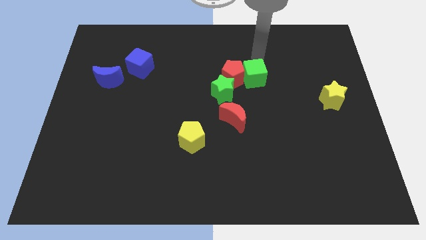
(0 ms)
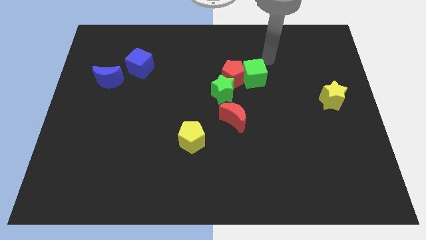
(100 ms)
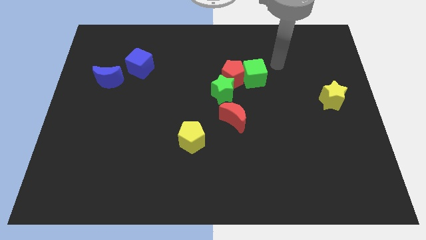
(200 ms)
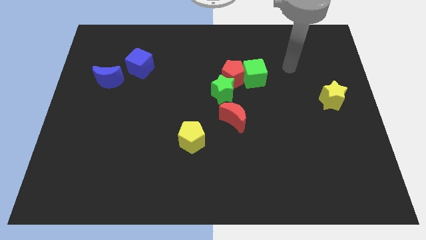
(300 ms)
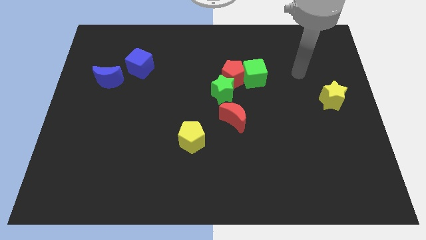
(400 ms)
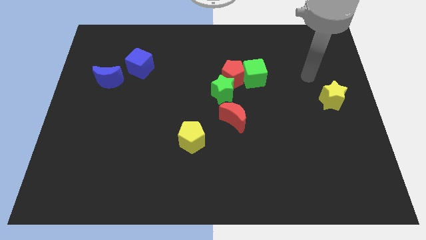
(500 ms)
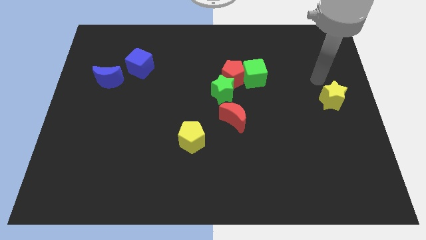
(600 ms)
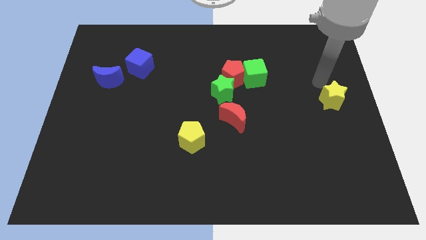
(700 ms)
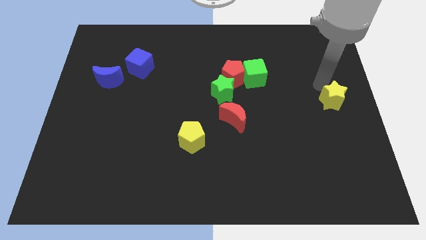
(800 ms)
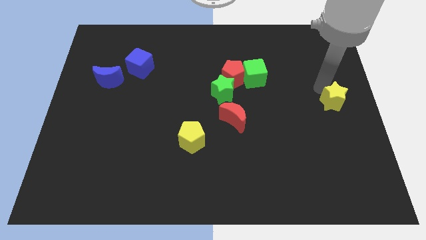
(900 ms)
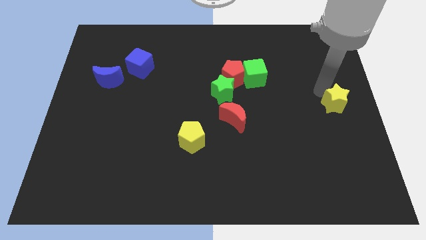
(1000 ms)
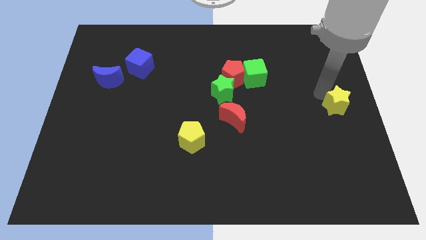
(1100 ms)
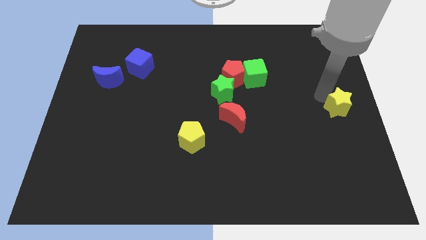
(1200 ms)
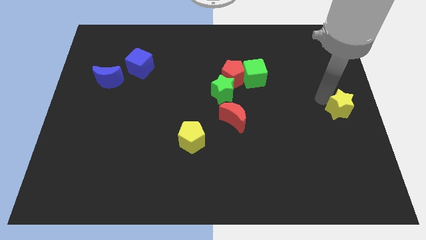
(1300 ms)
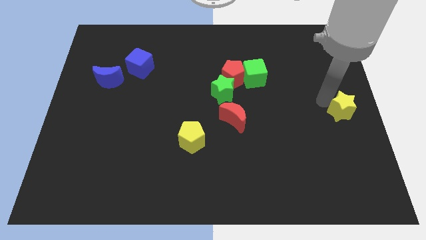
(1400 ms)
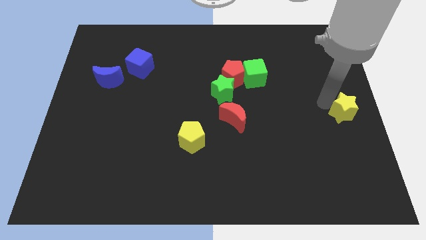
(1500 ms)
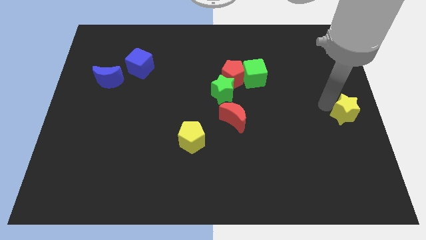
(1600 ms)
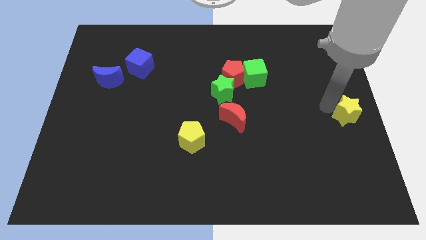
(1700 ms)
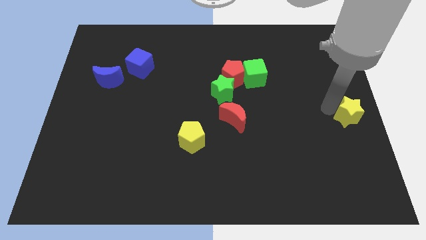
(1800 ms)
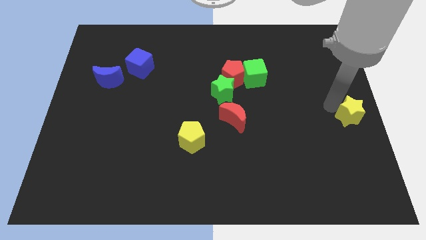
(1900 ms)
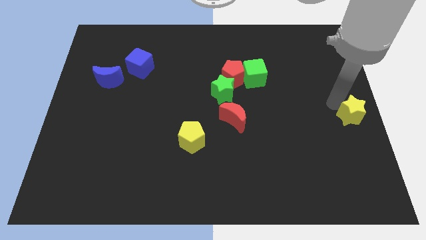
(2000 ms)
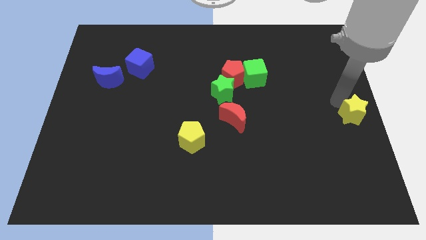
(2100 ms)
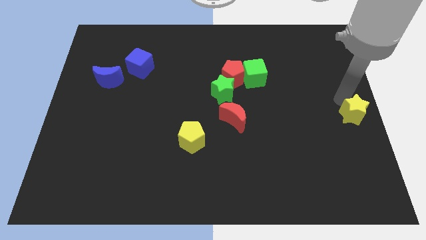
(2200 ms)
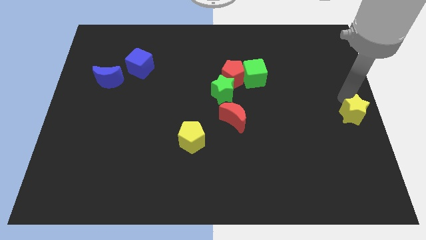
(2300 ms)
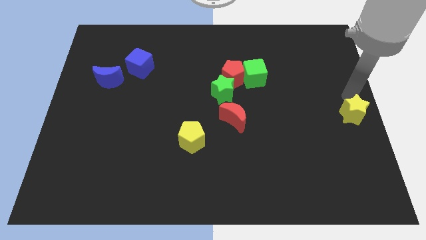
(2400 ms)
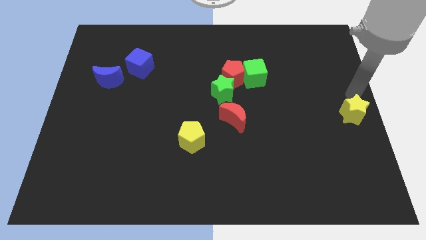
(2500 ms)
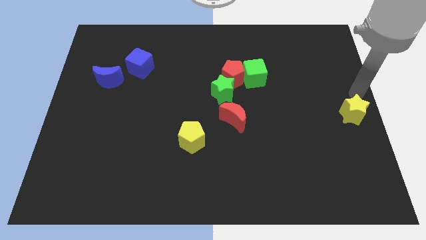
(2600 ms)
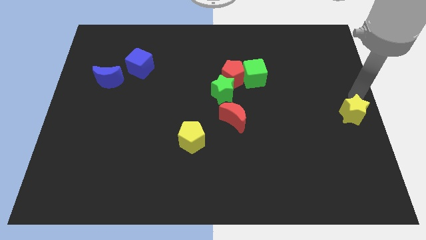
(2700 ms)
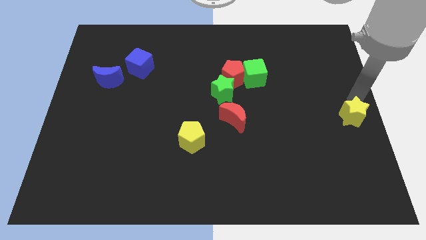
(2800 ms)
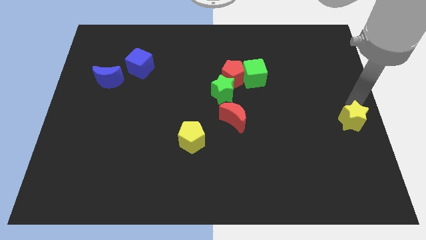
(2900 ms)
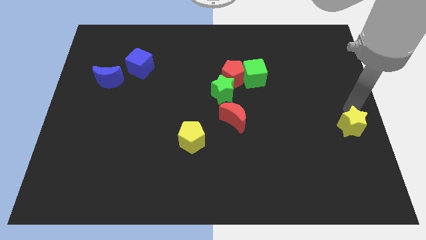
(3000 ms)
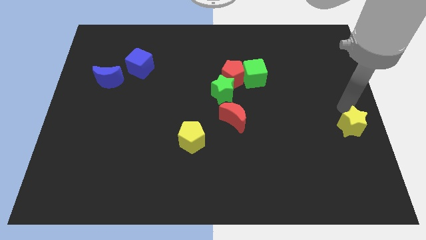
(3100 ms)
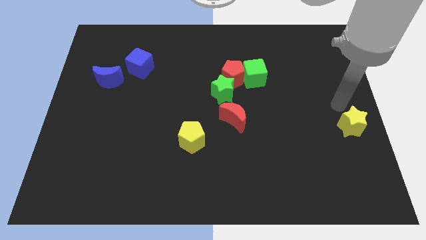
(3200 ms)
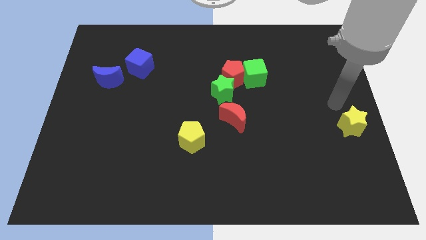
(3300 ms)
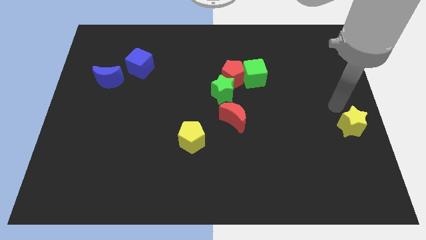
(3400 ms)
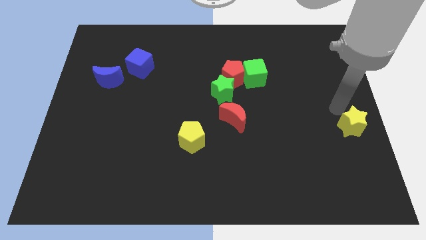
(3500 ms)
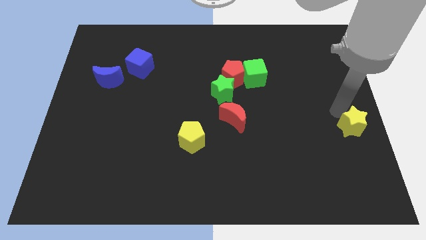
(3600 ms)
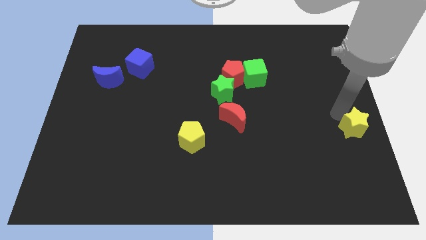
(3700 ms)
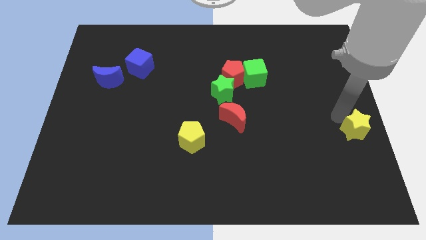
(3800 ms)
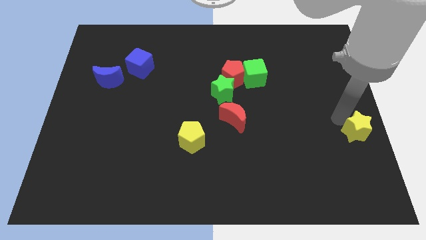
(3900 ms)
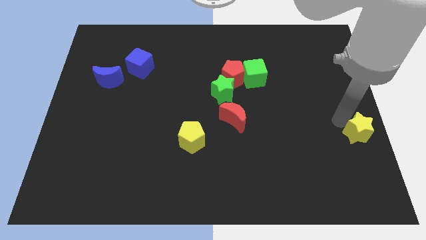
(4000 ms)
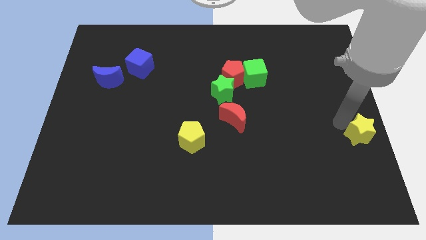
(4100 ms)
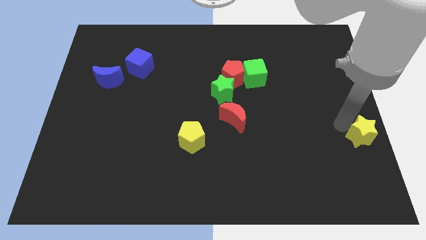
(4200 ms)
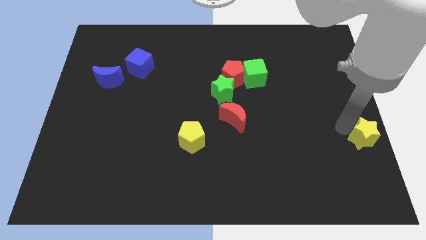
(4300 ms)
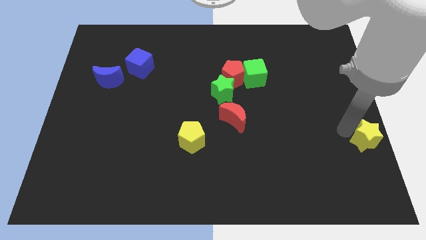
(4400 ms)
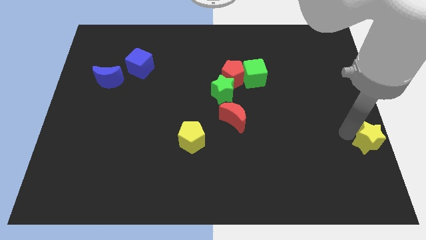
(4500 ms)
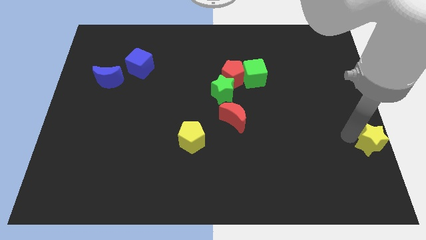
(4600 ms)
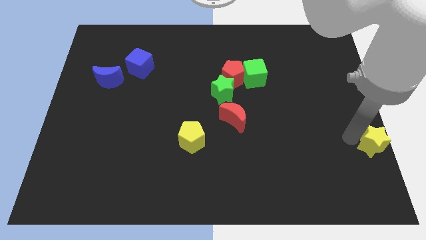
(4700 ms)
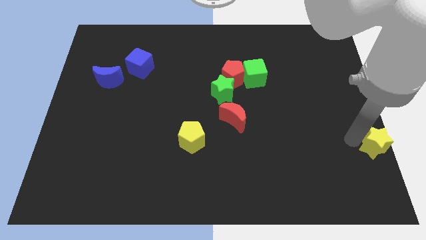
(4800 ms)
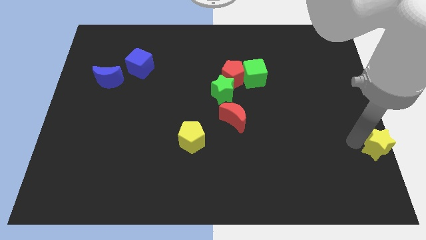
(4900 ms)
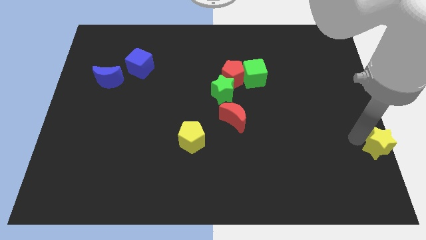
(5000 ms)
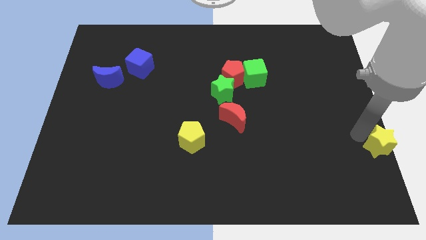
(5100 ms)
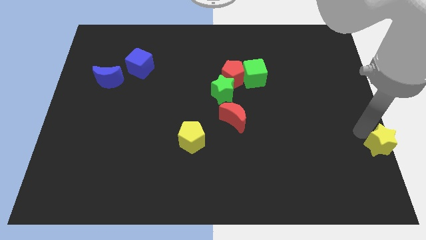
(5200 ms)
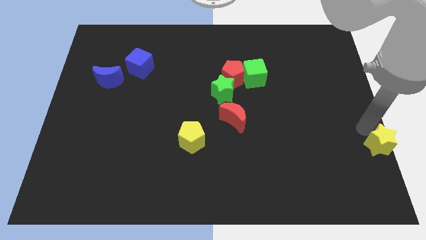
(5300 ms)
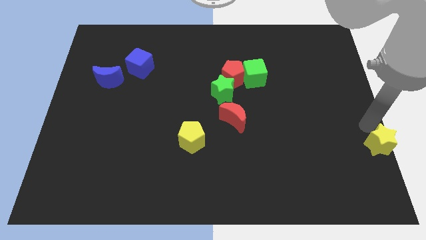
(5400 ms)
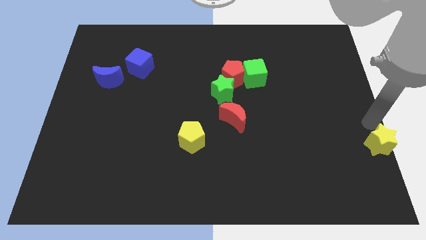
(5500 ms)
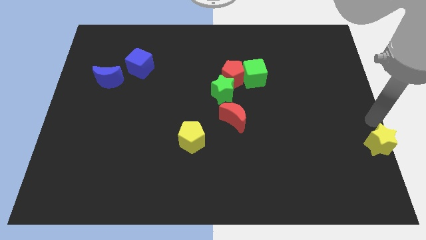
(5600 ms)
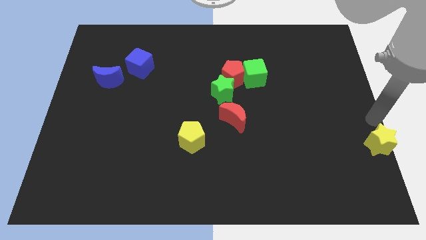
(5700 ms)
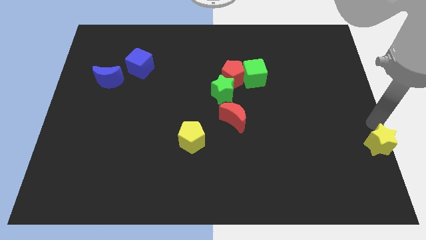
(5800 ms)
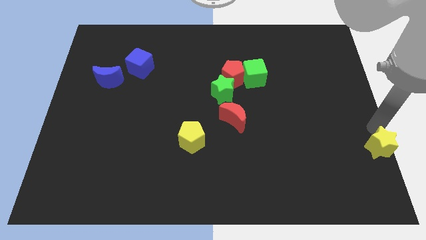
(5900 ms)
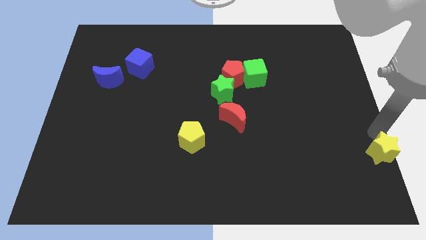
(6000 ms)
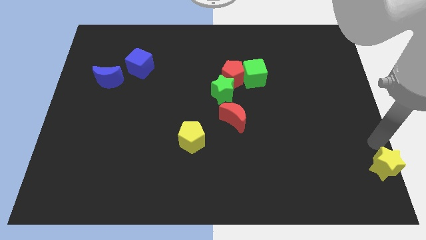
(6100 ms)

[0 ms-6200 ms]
push the yellow star to the bottom right corner
